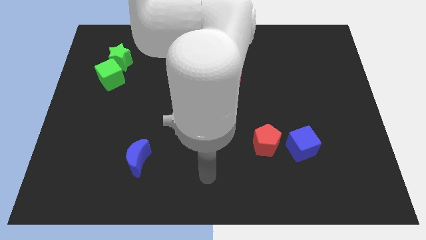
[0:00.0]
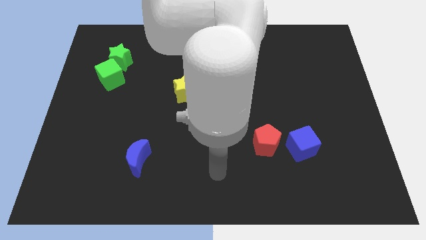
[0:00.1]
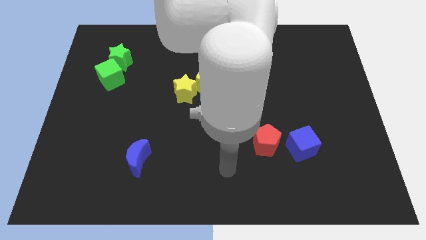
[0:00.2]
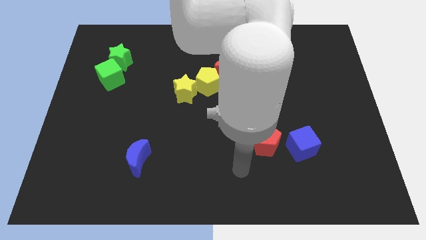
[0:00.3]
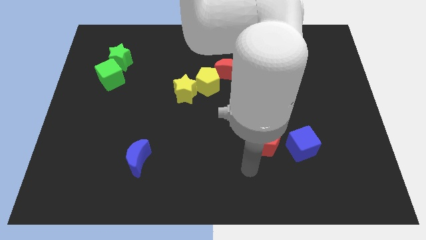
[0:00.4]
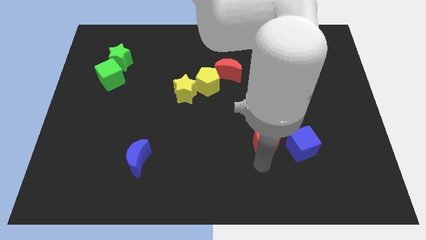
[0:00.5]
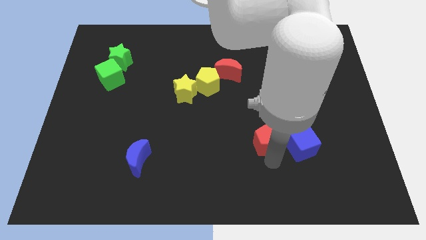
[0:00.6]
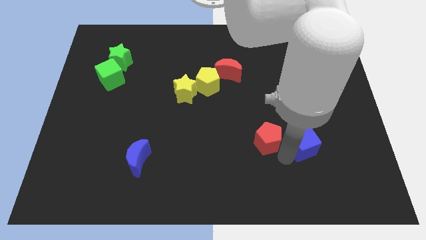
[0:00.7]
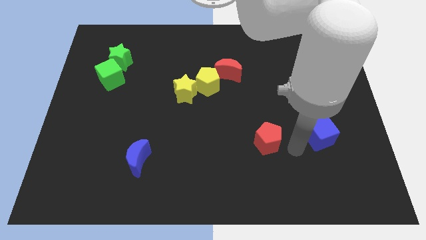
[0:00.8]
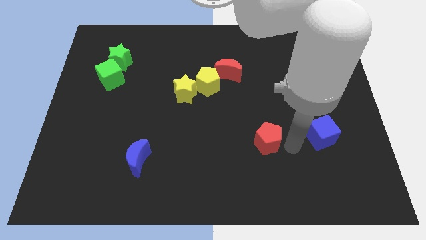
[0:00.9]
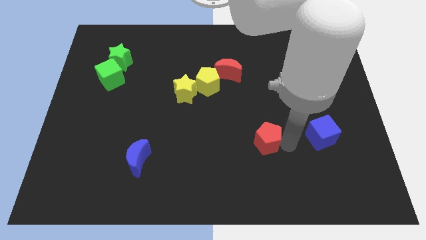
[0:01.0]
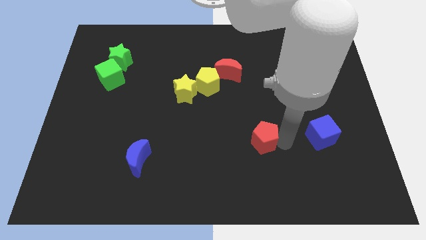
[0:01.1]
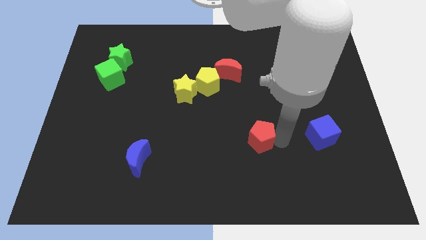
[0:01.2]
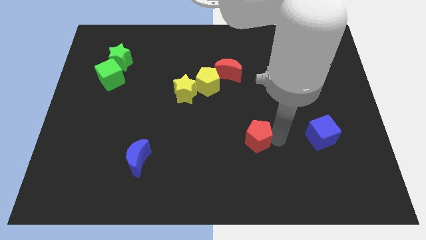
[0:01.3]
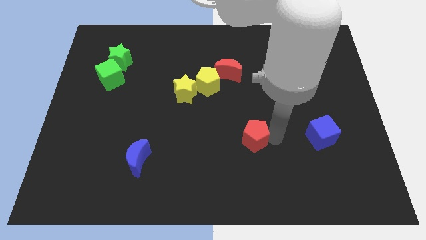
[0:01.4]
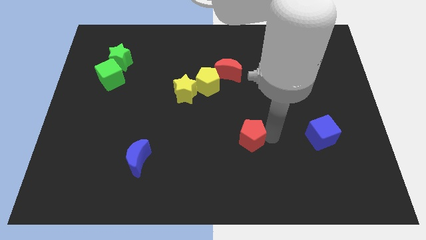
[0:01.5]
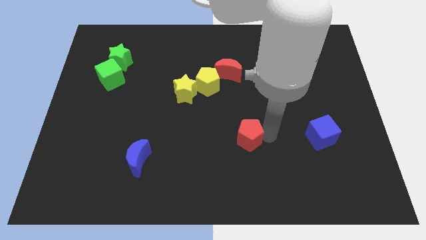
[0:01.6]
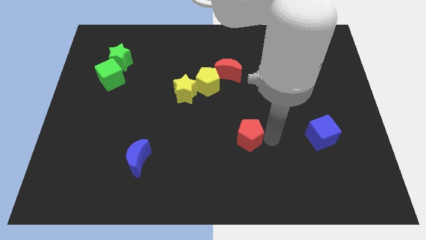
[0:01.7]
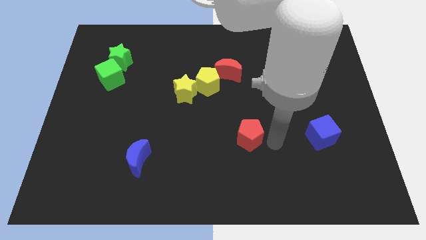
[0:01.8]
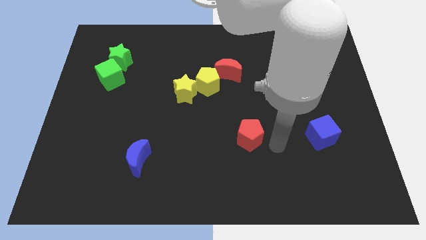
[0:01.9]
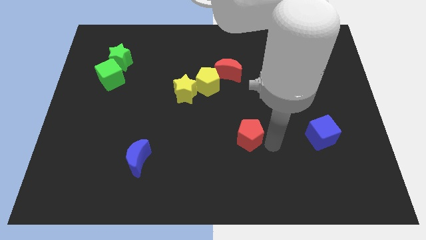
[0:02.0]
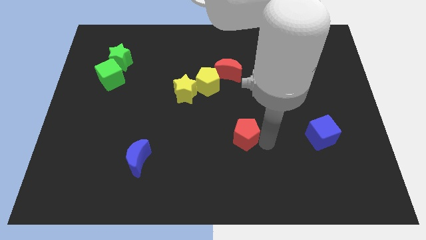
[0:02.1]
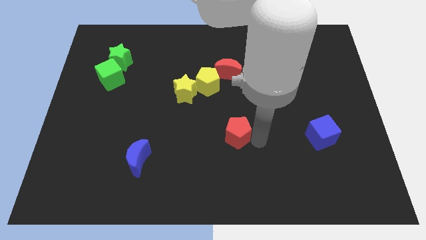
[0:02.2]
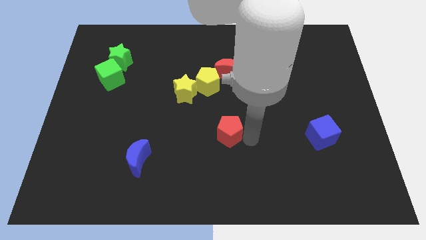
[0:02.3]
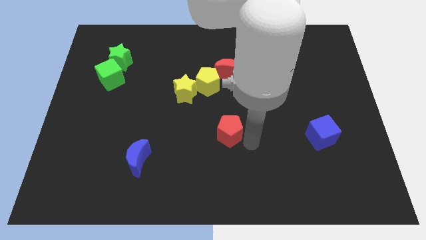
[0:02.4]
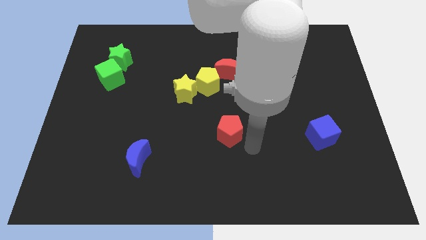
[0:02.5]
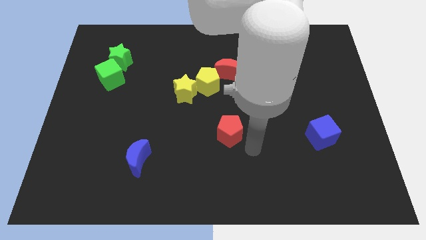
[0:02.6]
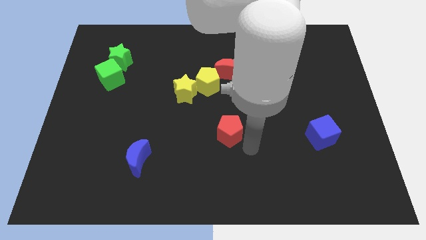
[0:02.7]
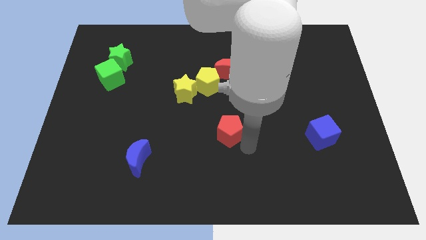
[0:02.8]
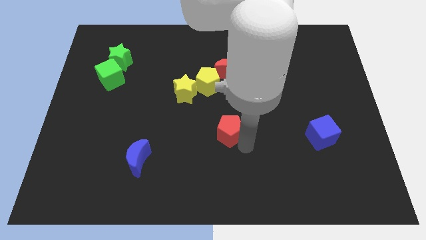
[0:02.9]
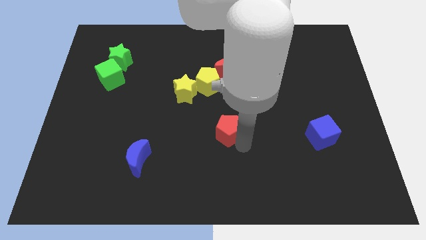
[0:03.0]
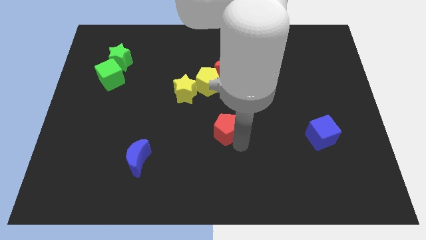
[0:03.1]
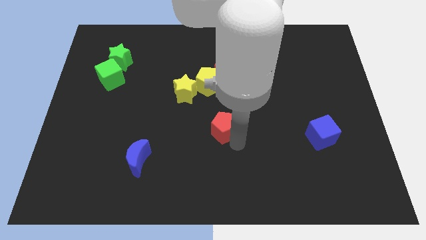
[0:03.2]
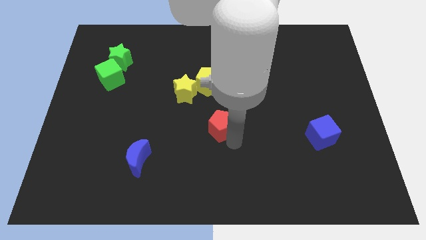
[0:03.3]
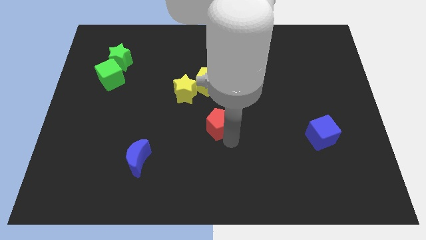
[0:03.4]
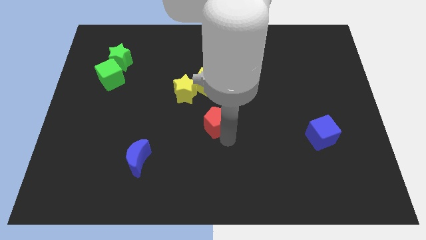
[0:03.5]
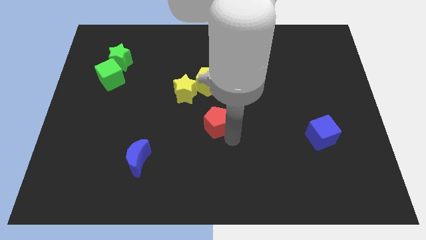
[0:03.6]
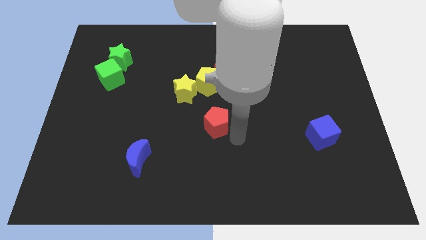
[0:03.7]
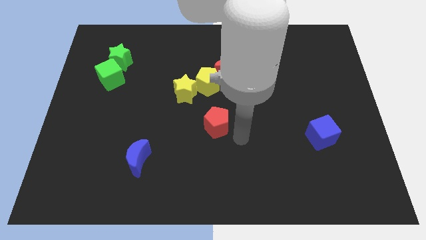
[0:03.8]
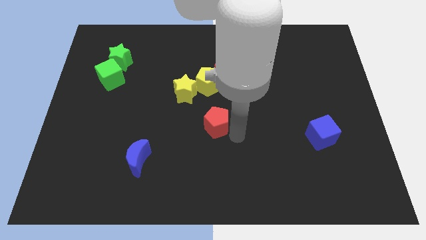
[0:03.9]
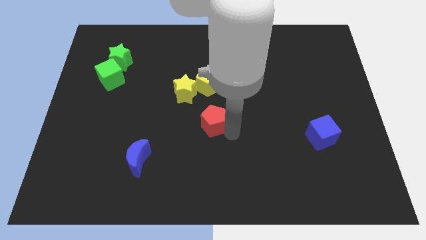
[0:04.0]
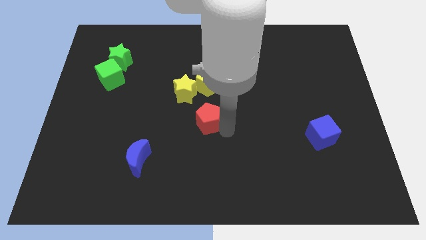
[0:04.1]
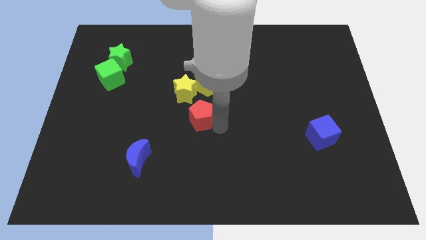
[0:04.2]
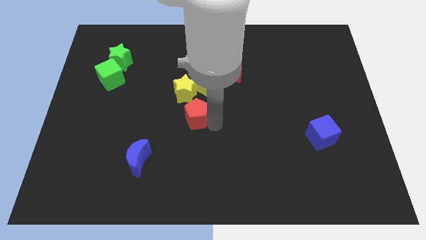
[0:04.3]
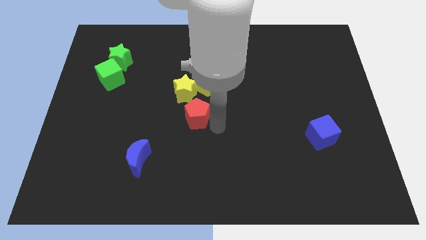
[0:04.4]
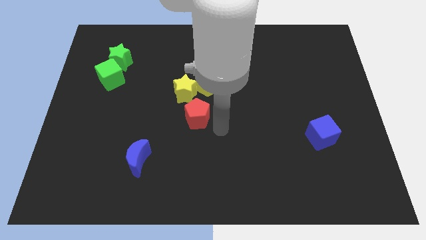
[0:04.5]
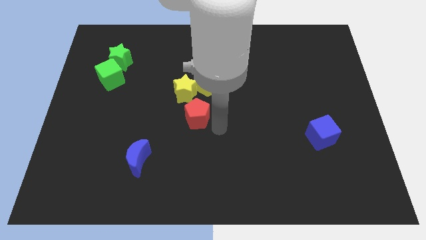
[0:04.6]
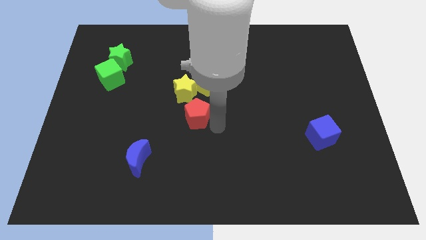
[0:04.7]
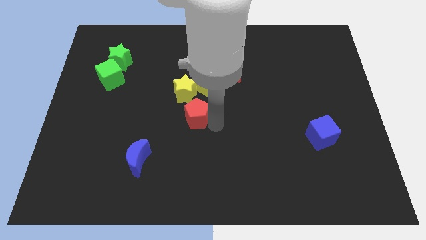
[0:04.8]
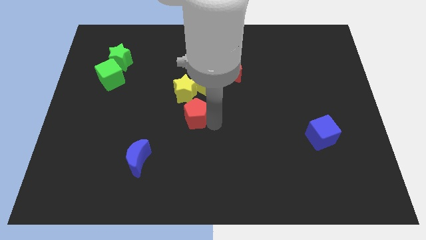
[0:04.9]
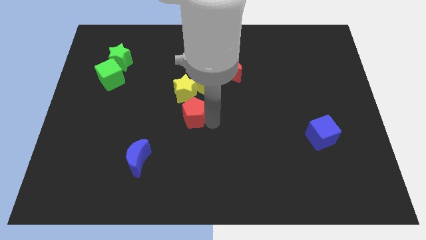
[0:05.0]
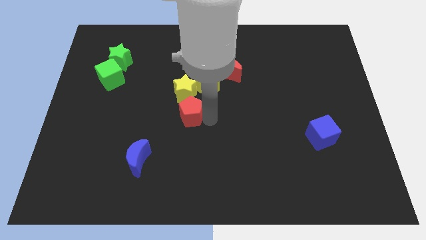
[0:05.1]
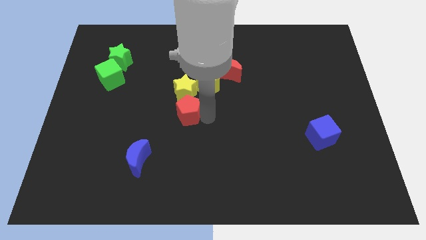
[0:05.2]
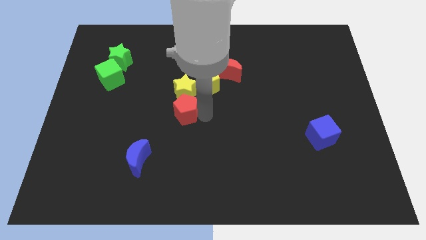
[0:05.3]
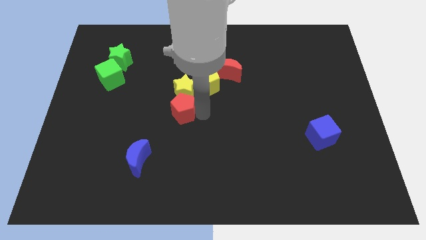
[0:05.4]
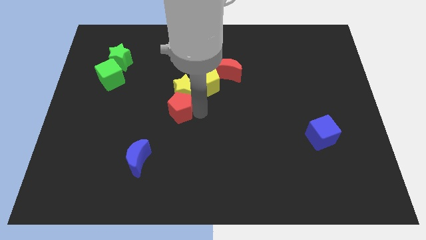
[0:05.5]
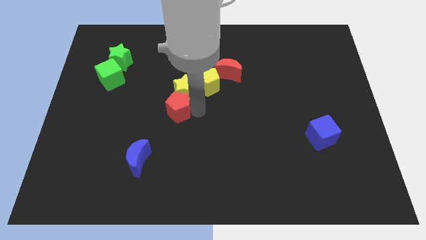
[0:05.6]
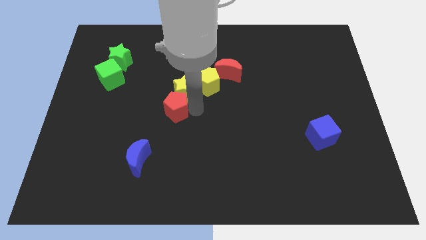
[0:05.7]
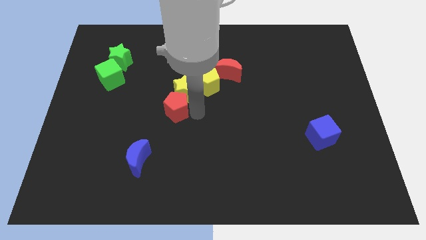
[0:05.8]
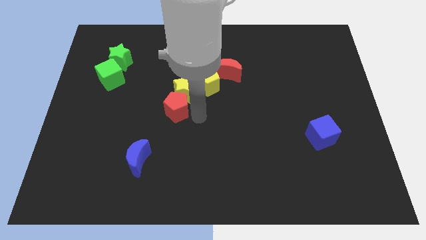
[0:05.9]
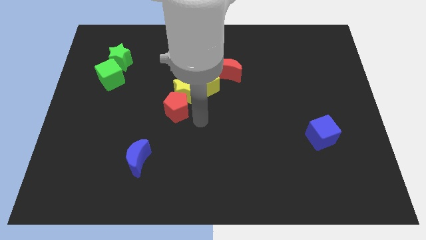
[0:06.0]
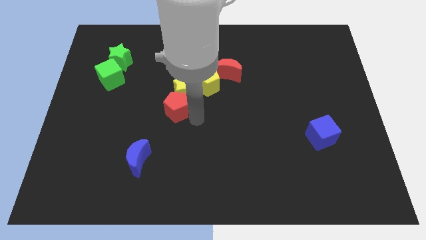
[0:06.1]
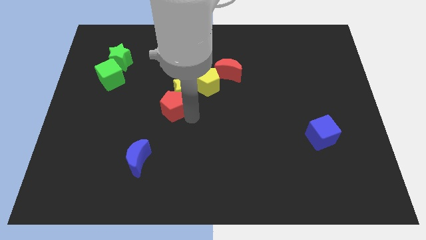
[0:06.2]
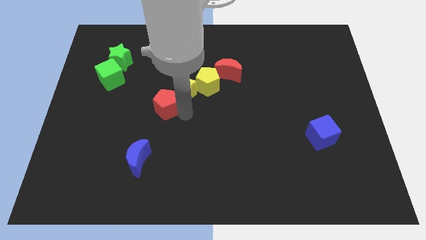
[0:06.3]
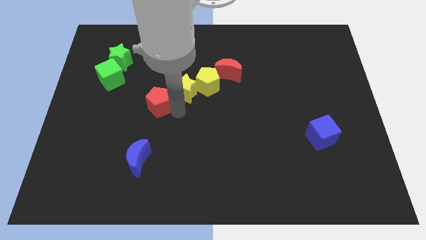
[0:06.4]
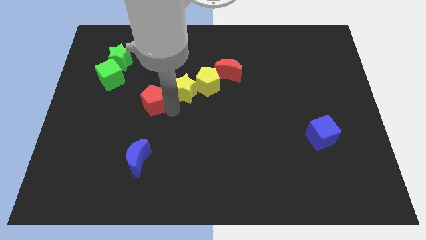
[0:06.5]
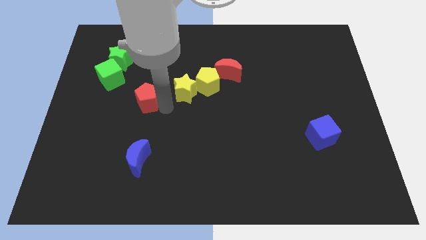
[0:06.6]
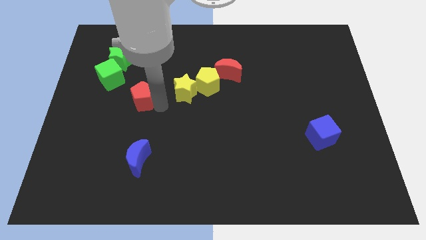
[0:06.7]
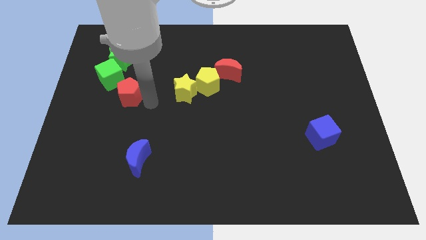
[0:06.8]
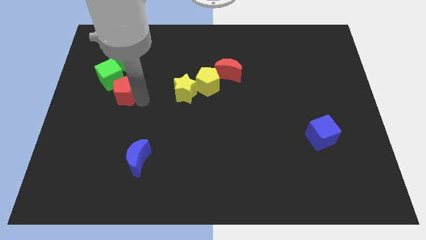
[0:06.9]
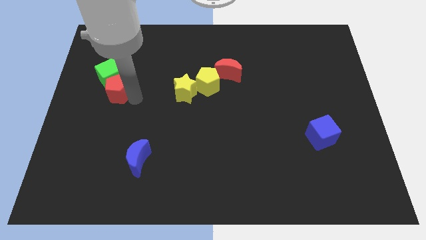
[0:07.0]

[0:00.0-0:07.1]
push the red pentagon next to the green cube
